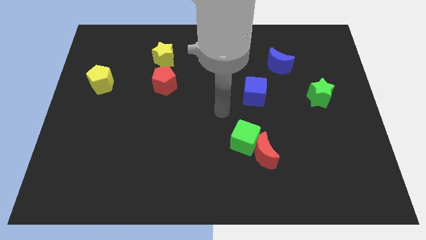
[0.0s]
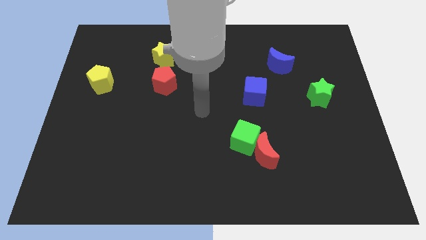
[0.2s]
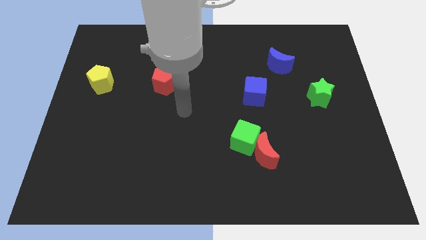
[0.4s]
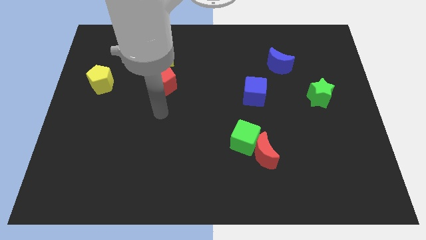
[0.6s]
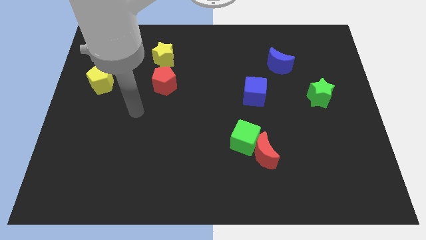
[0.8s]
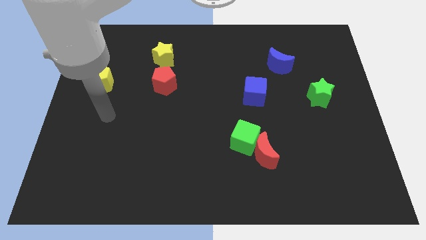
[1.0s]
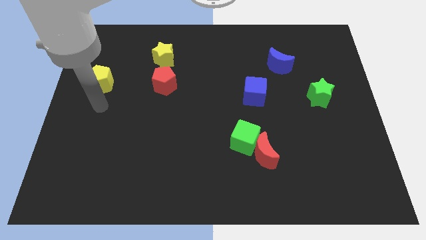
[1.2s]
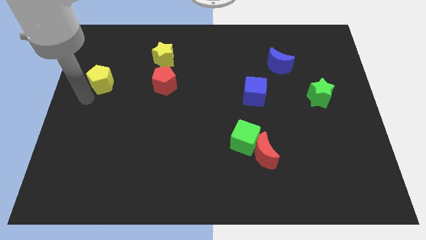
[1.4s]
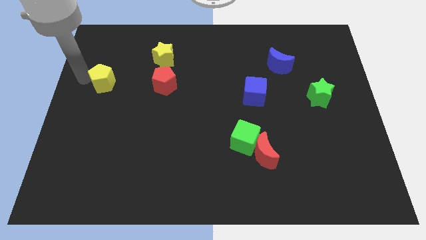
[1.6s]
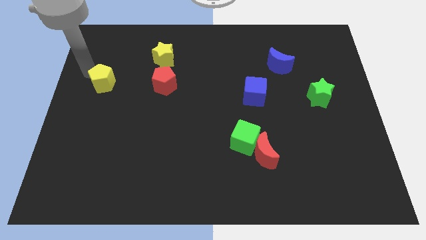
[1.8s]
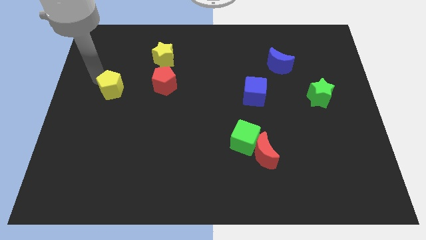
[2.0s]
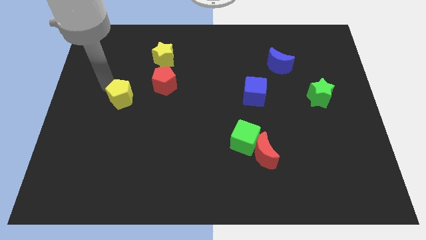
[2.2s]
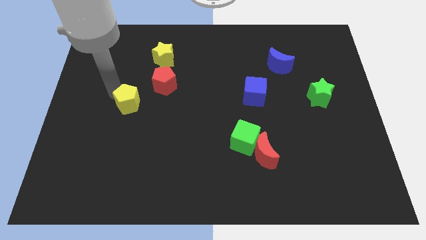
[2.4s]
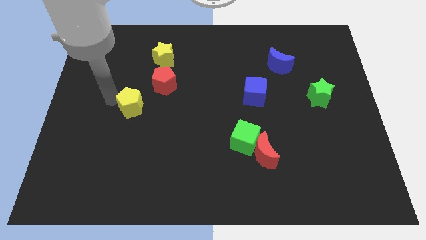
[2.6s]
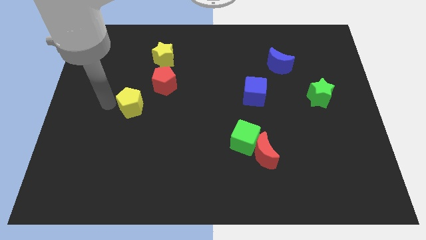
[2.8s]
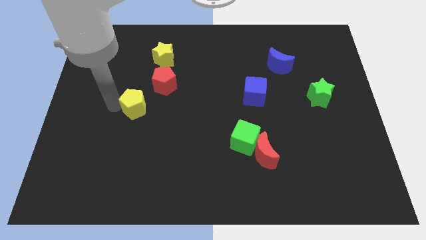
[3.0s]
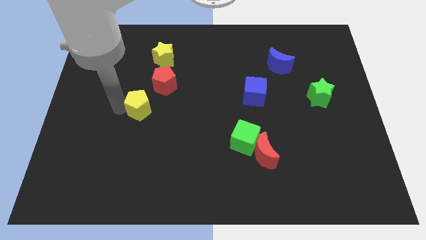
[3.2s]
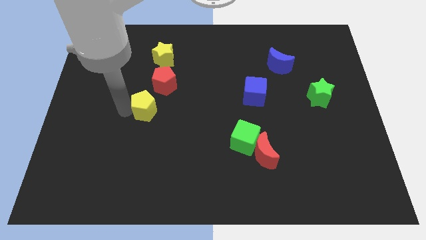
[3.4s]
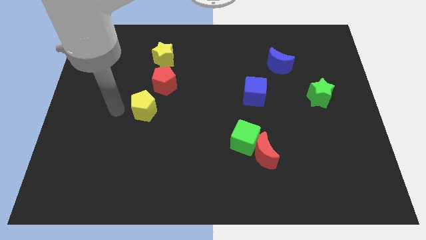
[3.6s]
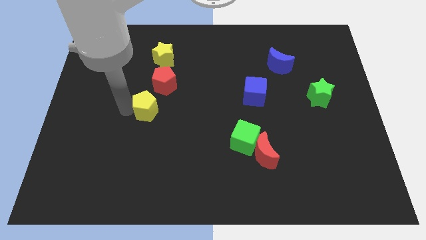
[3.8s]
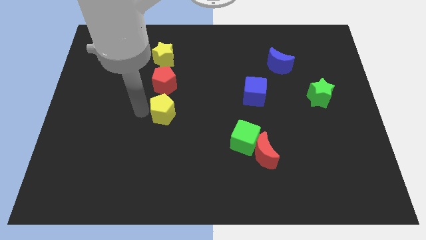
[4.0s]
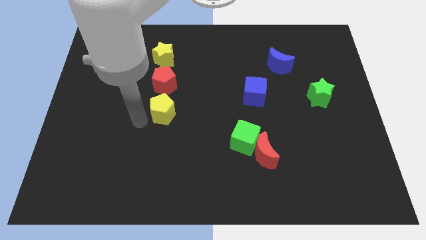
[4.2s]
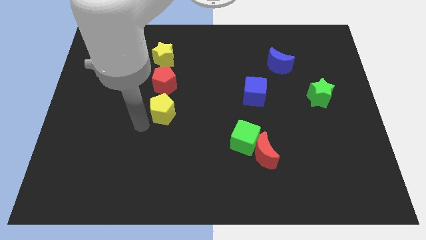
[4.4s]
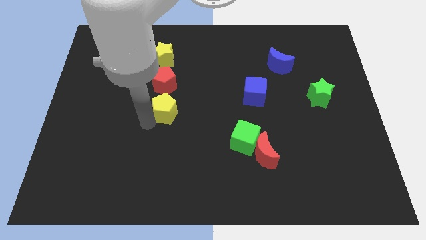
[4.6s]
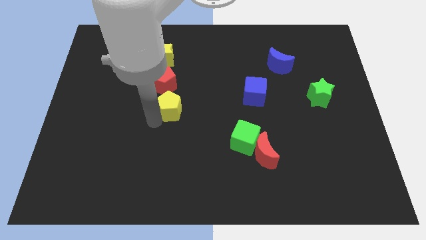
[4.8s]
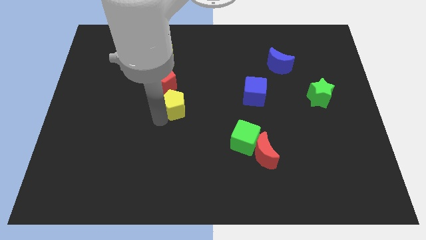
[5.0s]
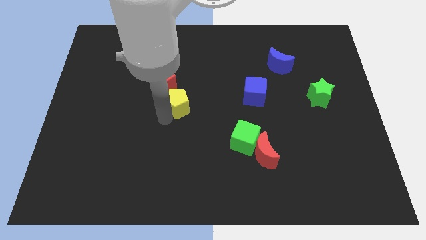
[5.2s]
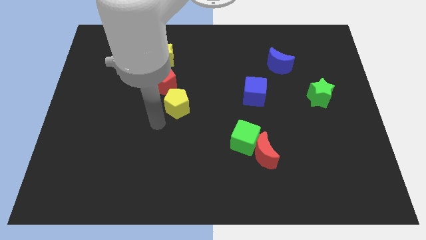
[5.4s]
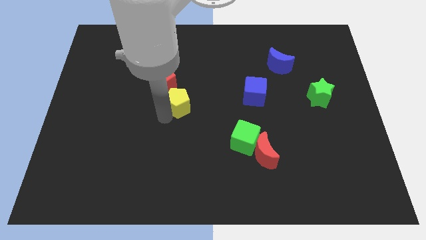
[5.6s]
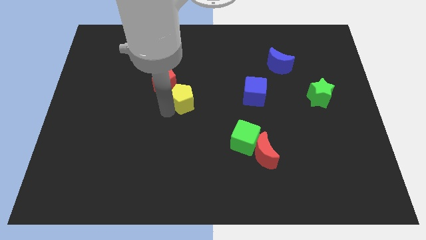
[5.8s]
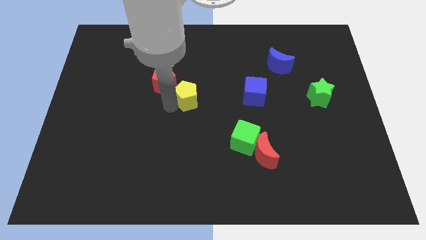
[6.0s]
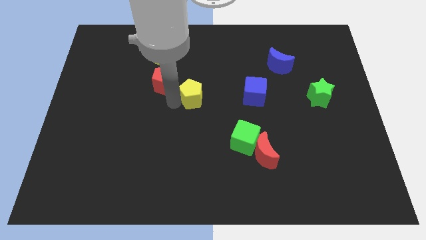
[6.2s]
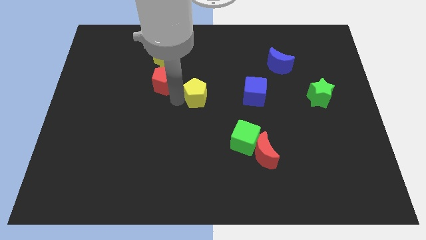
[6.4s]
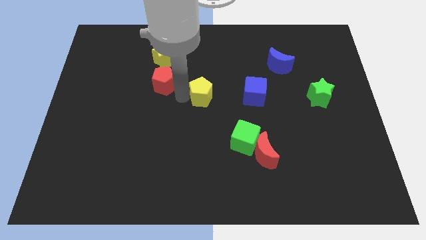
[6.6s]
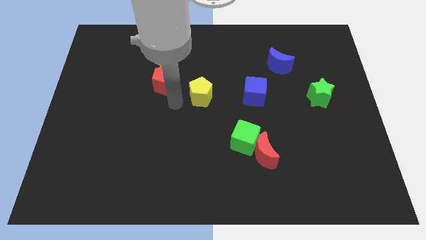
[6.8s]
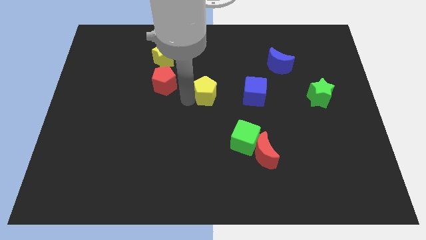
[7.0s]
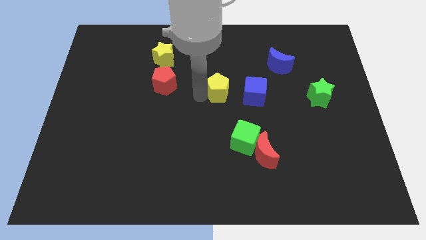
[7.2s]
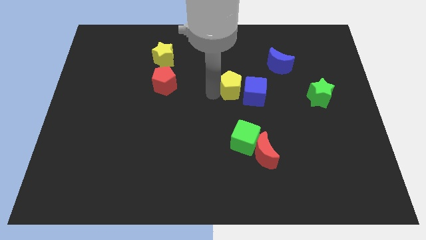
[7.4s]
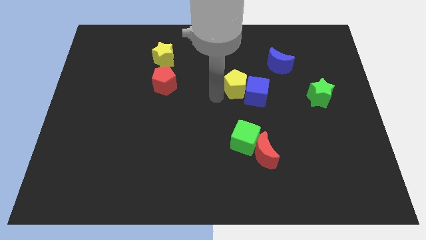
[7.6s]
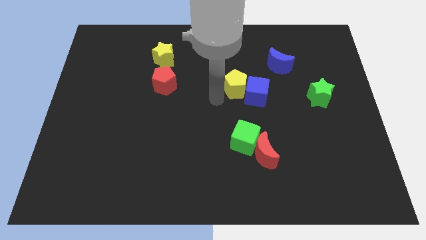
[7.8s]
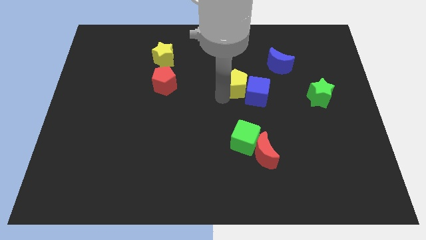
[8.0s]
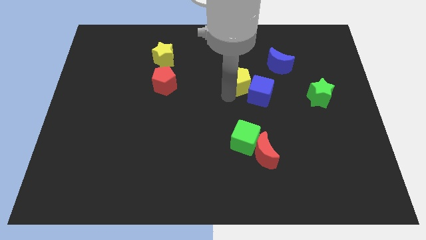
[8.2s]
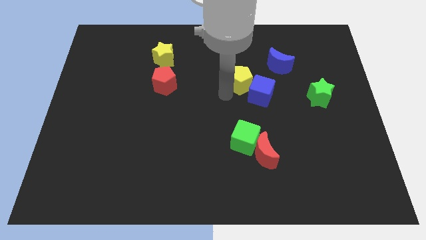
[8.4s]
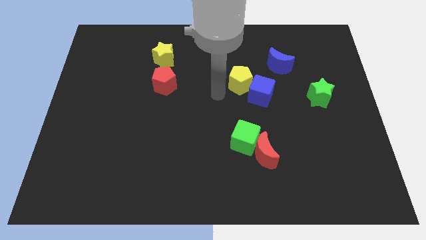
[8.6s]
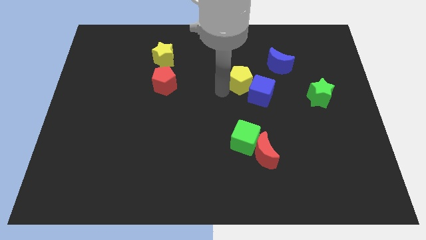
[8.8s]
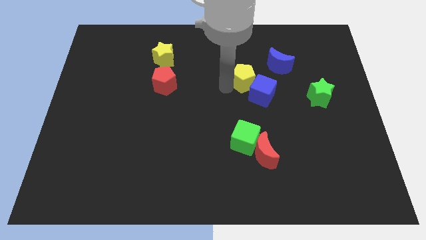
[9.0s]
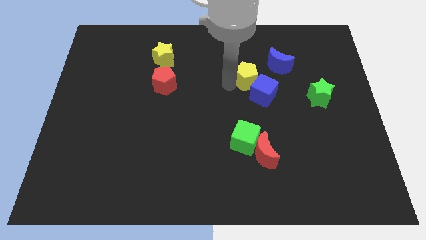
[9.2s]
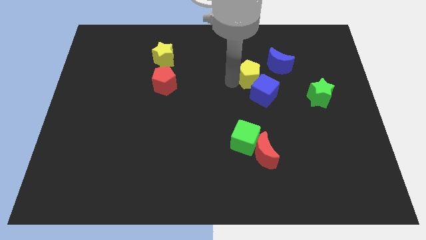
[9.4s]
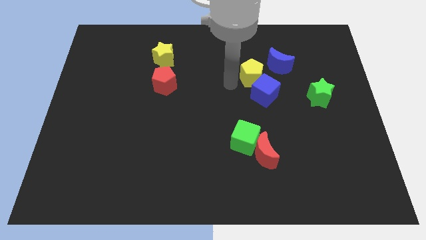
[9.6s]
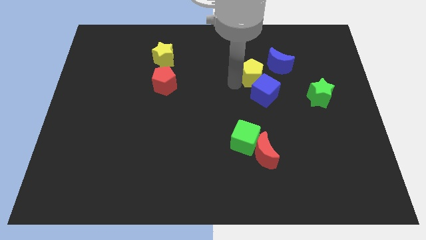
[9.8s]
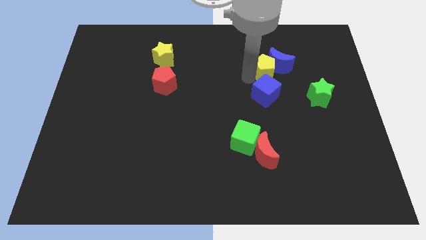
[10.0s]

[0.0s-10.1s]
slide the yellow pentagon next to the blue moon

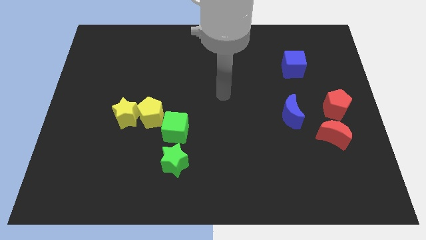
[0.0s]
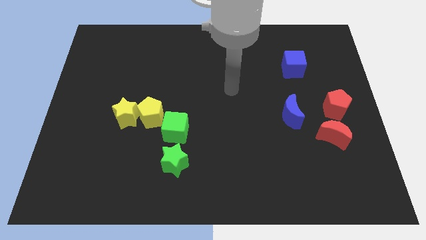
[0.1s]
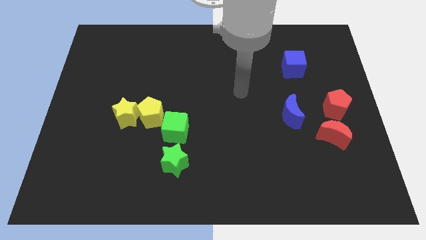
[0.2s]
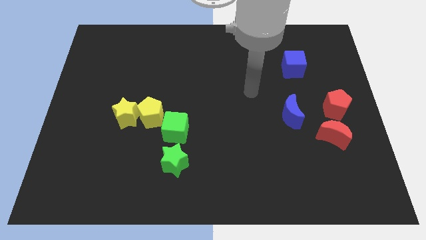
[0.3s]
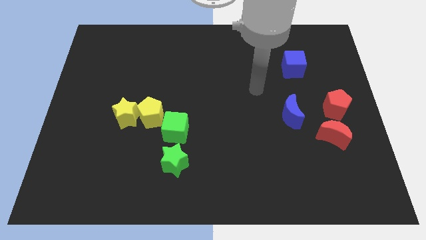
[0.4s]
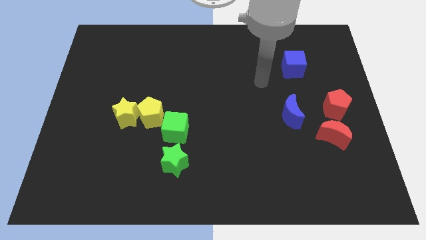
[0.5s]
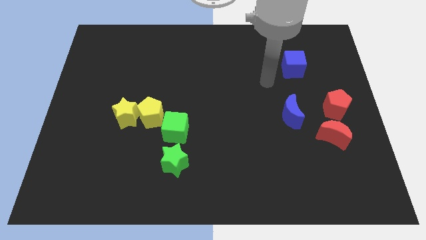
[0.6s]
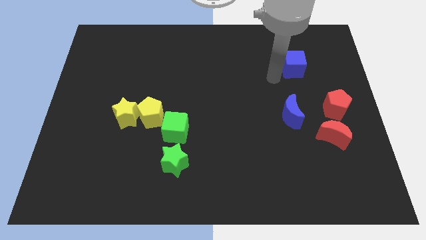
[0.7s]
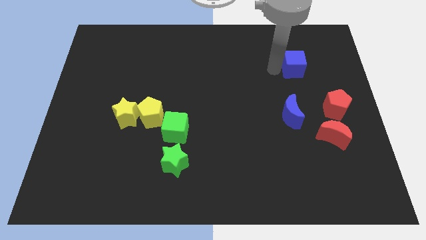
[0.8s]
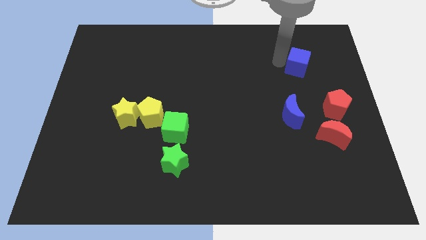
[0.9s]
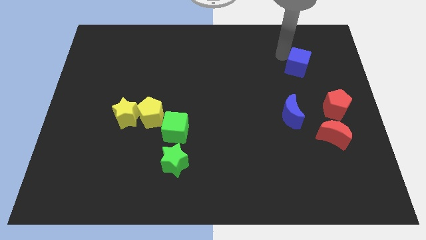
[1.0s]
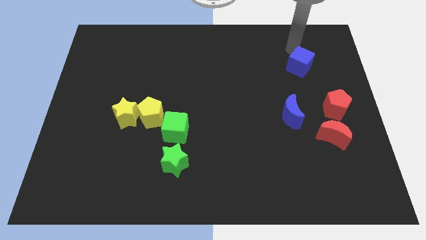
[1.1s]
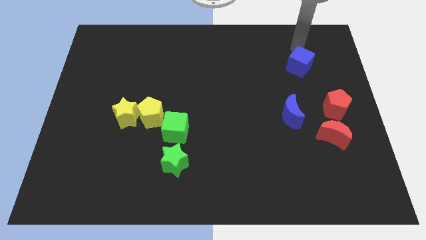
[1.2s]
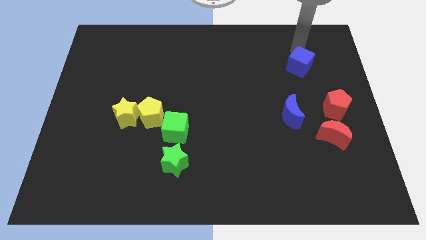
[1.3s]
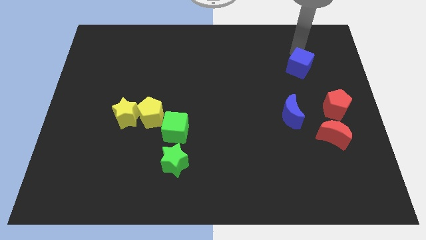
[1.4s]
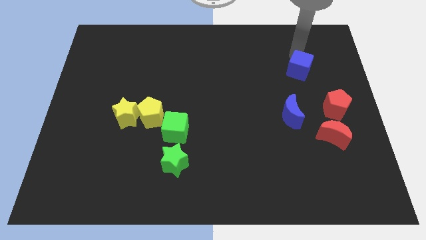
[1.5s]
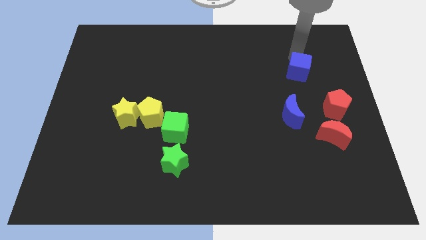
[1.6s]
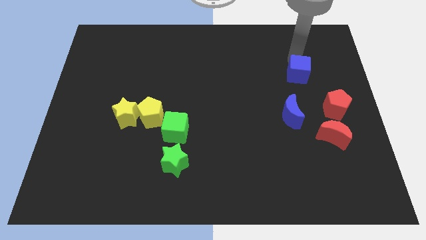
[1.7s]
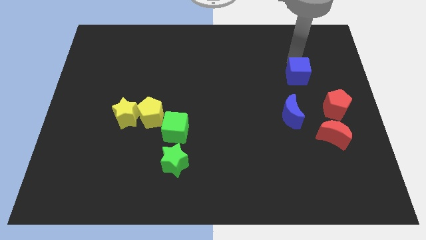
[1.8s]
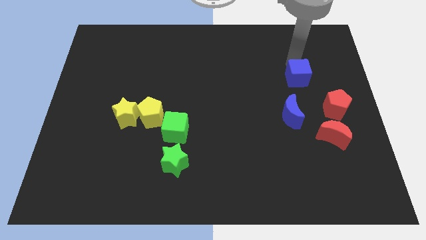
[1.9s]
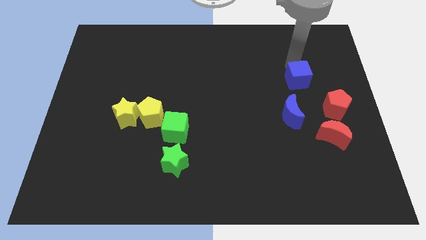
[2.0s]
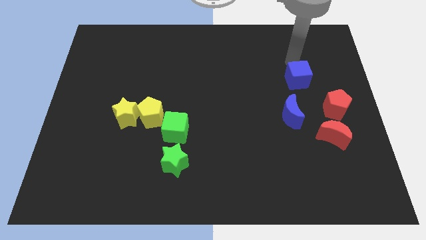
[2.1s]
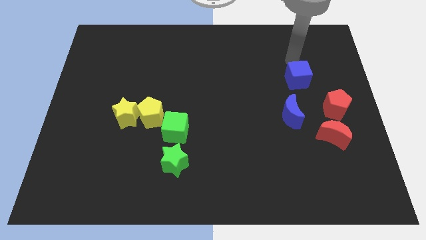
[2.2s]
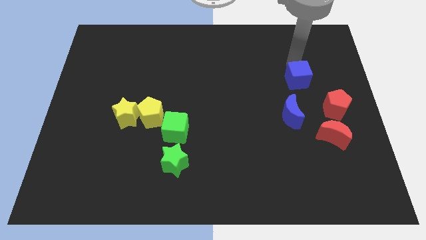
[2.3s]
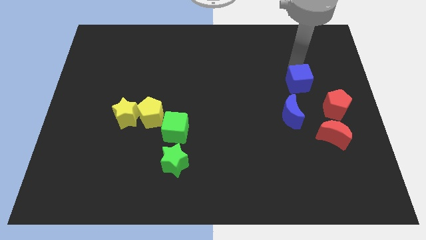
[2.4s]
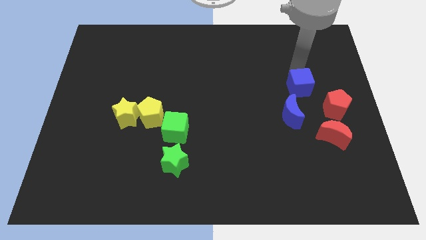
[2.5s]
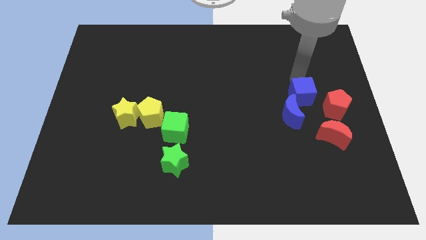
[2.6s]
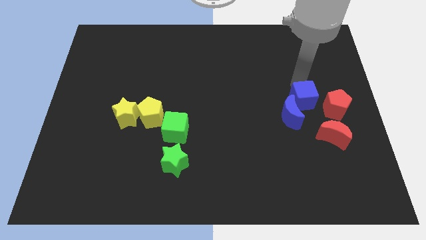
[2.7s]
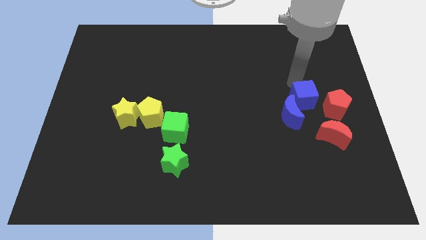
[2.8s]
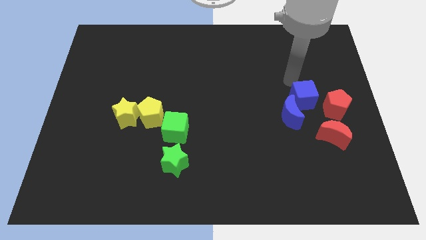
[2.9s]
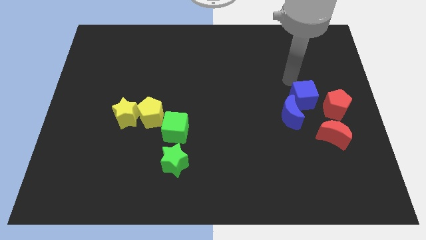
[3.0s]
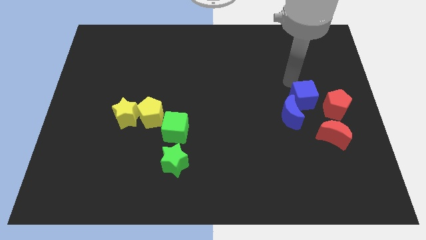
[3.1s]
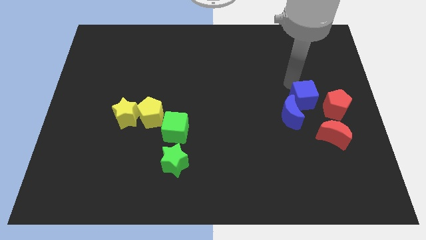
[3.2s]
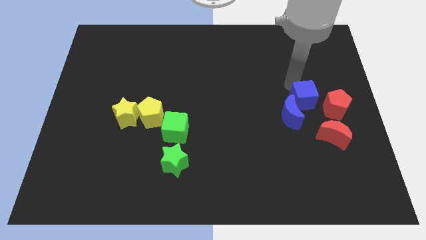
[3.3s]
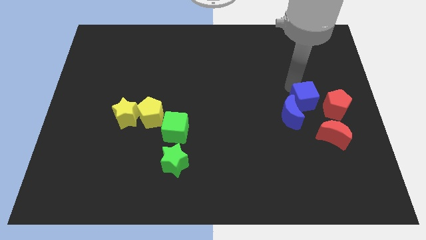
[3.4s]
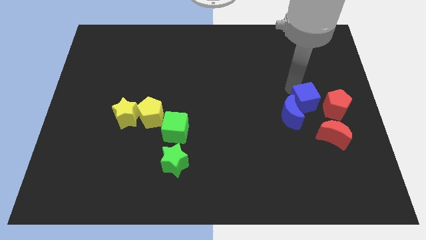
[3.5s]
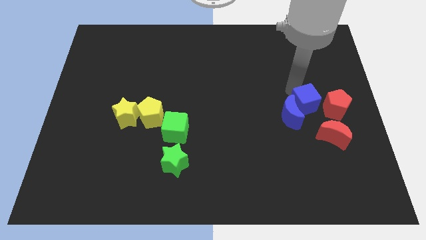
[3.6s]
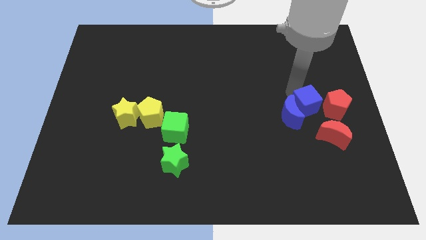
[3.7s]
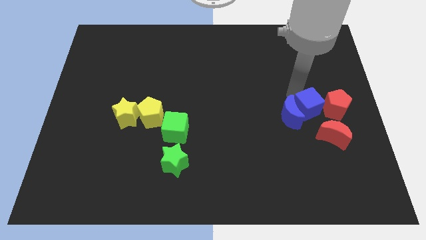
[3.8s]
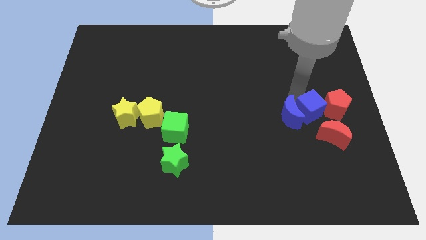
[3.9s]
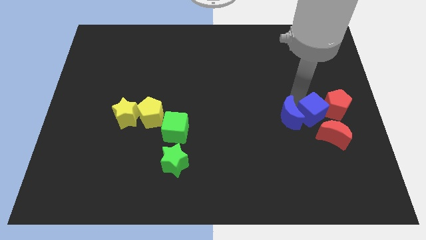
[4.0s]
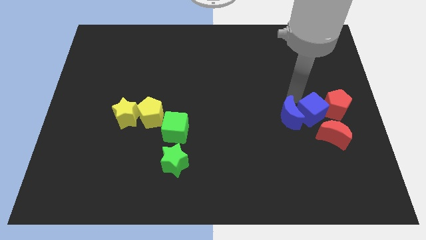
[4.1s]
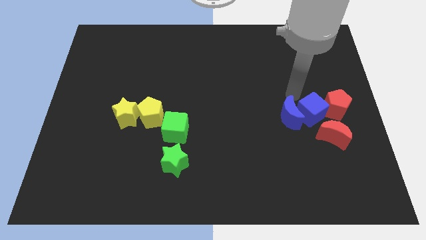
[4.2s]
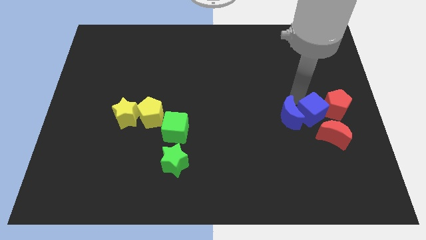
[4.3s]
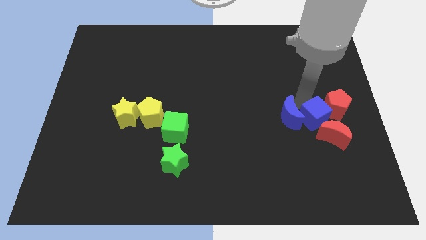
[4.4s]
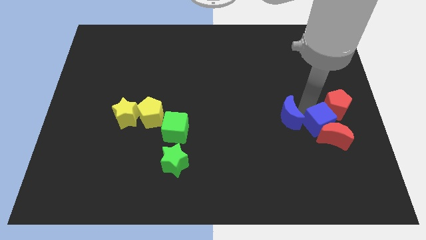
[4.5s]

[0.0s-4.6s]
slide the blue cube towards the red moon
